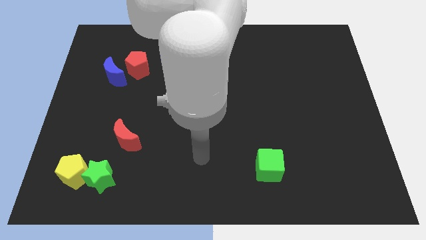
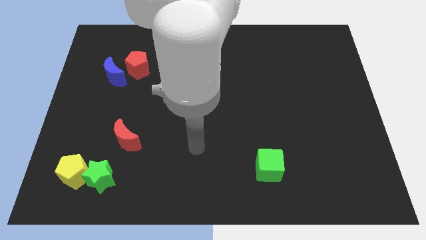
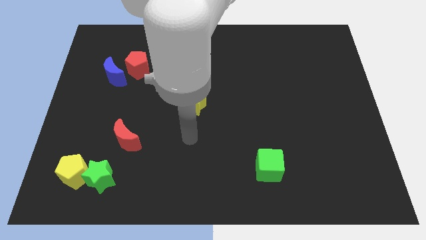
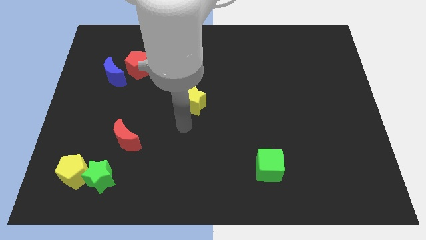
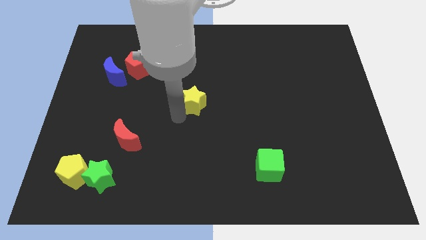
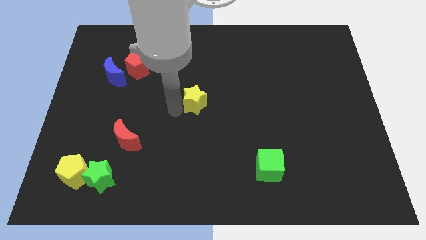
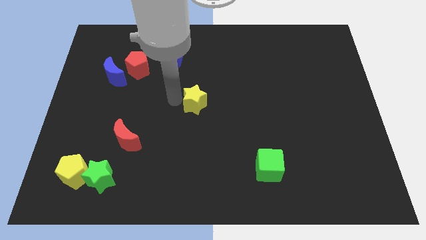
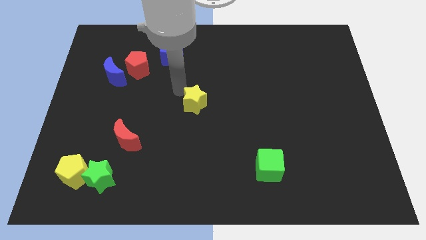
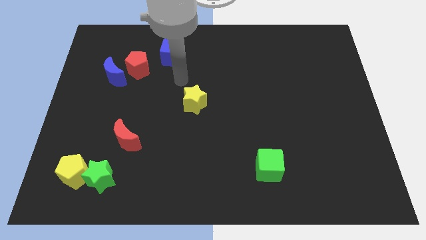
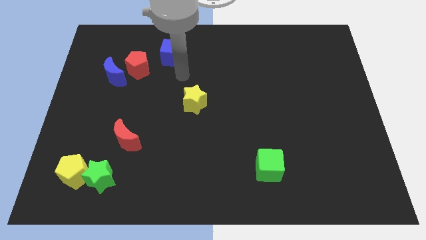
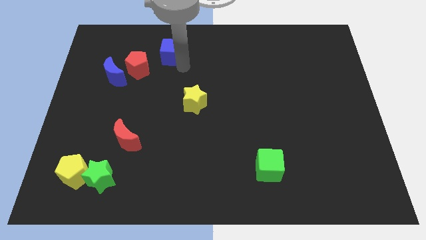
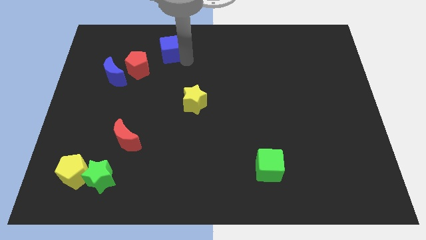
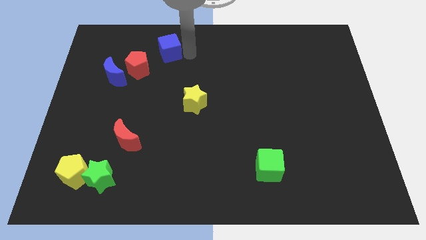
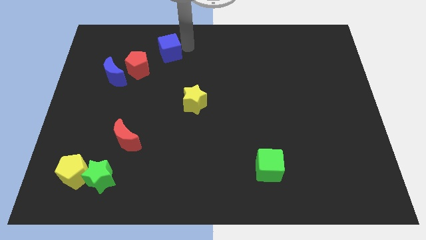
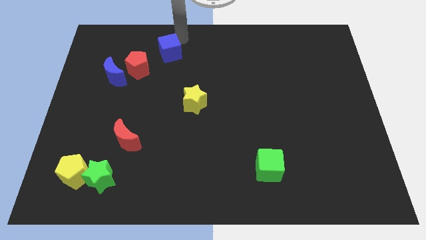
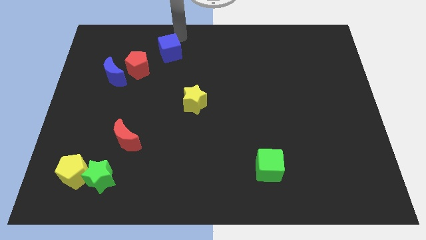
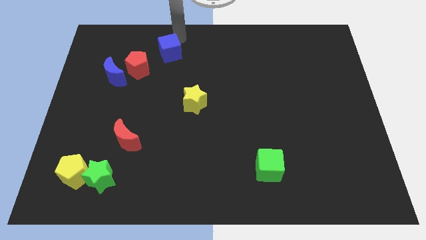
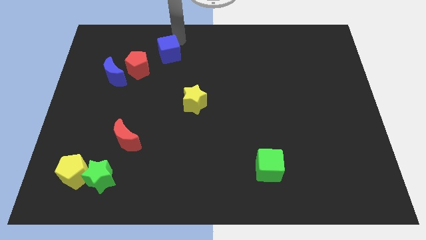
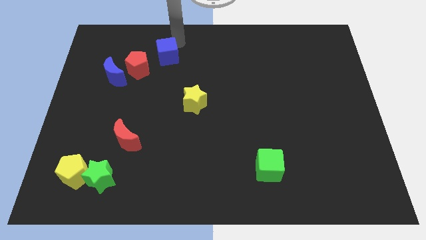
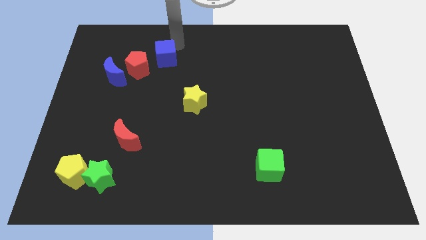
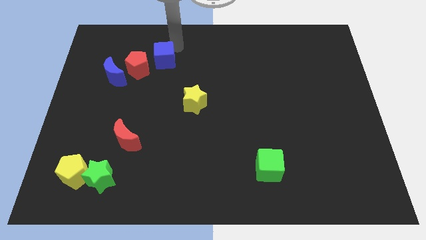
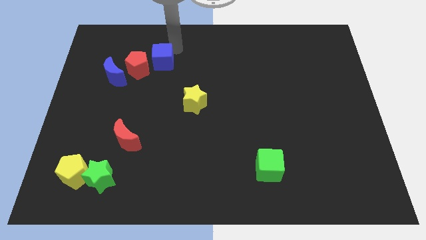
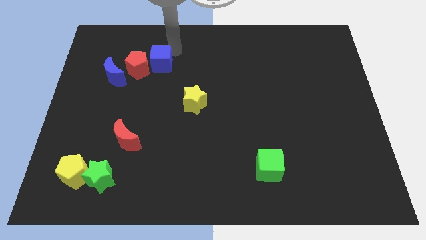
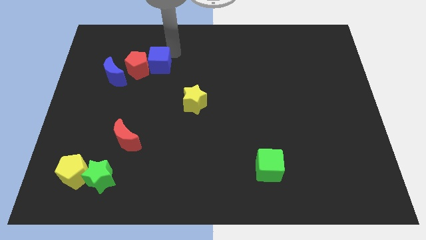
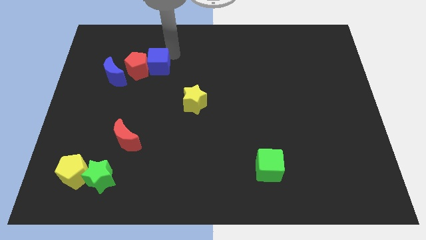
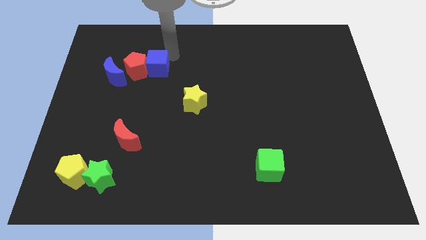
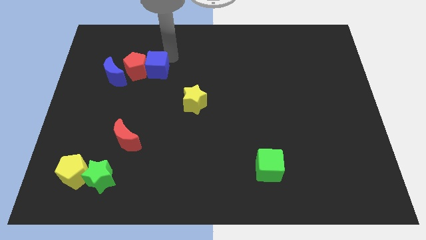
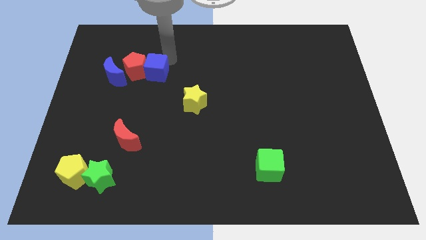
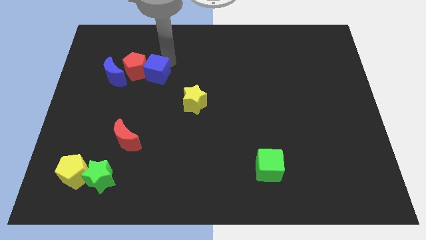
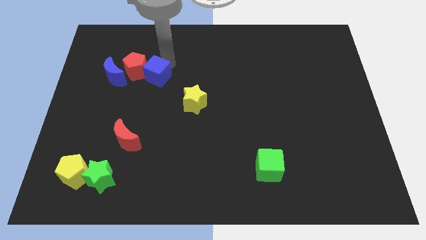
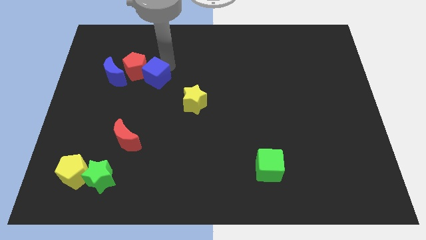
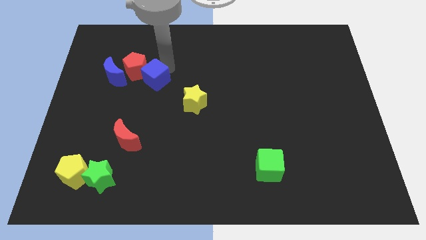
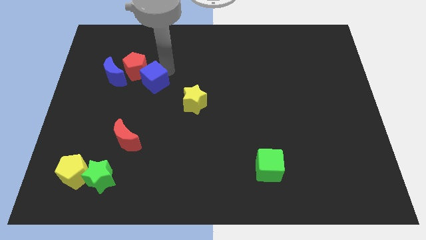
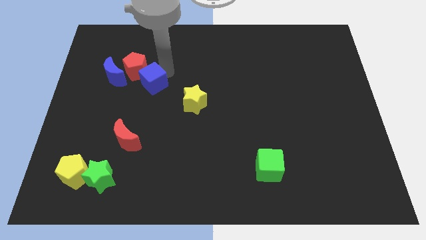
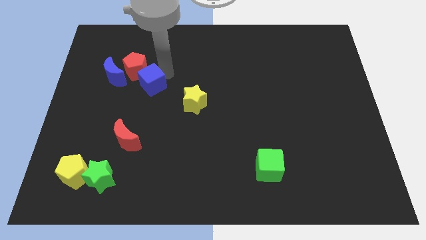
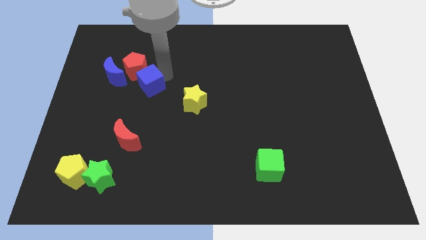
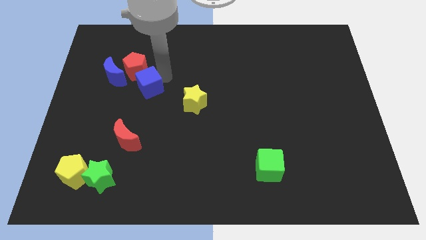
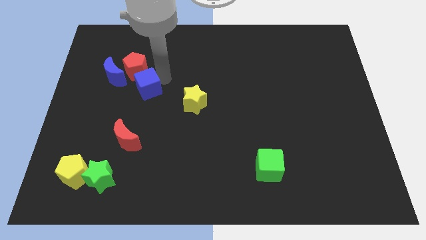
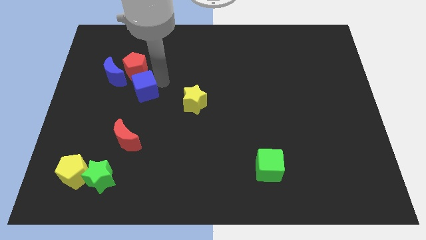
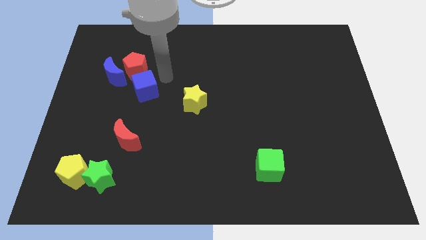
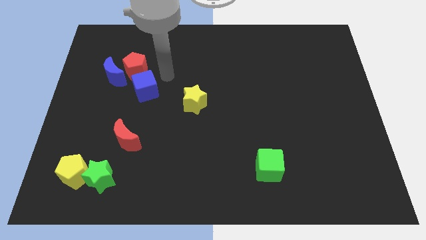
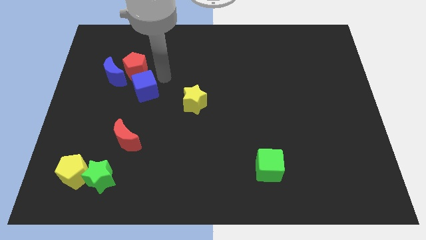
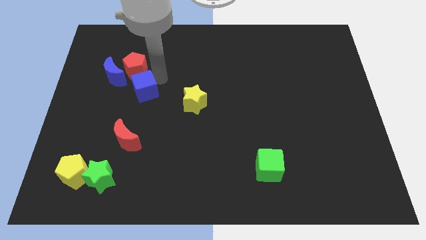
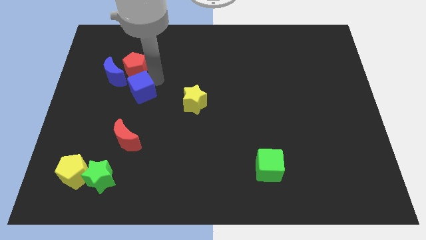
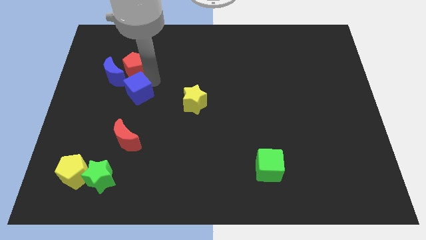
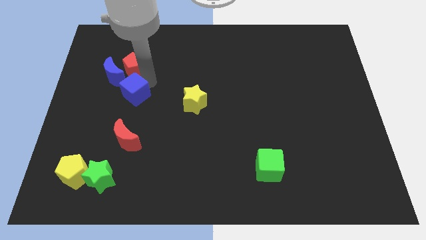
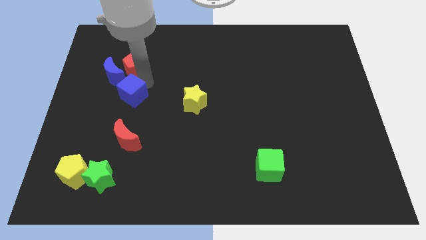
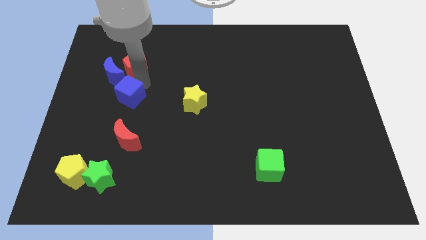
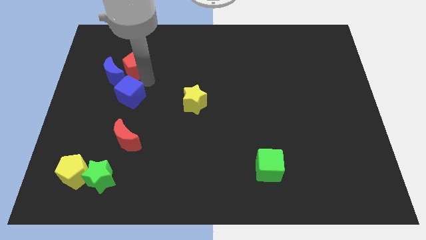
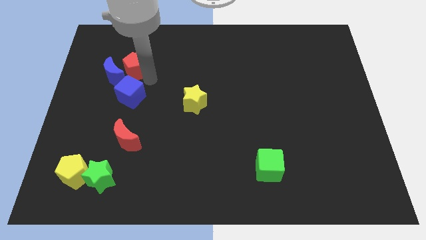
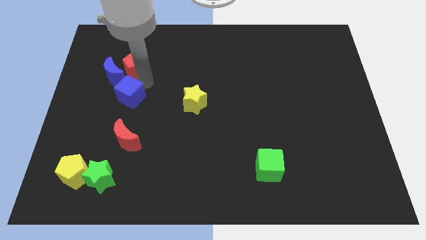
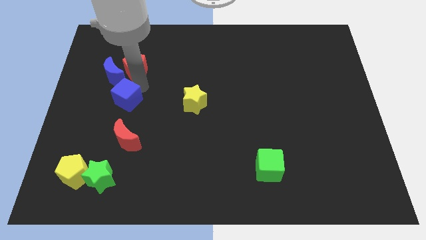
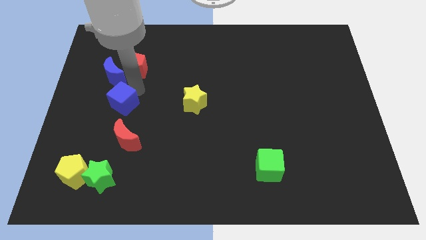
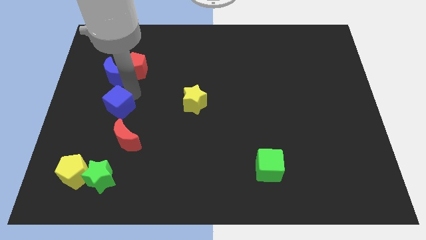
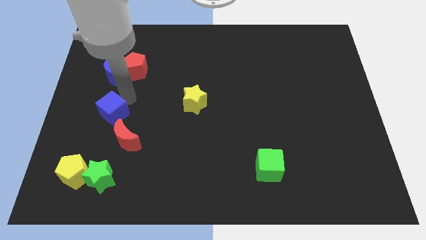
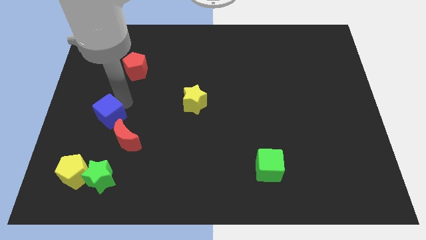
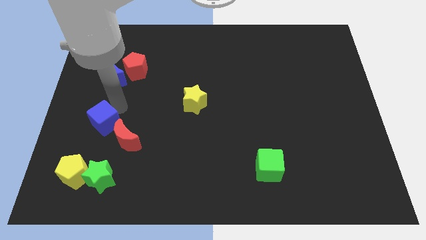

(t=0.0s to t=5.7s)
slide the blue cube to the top side of the yellow pentagon

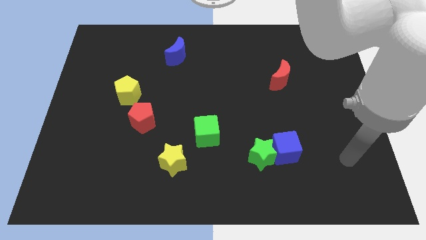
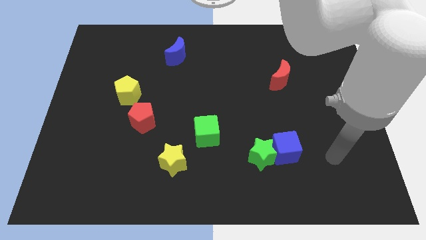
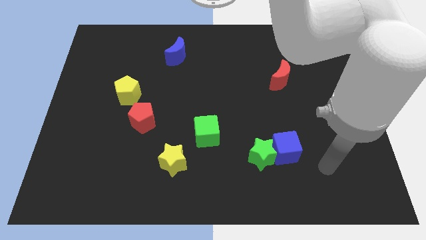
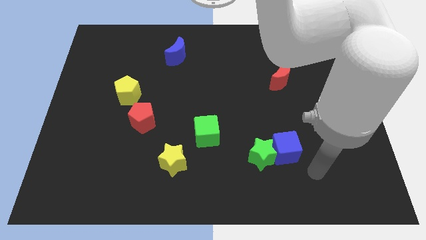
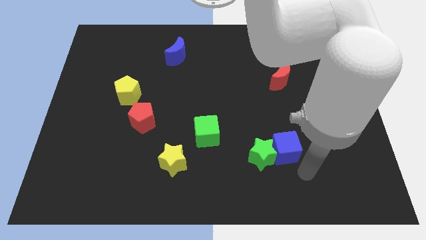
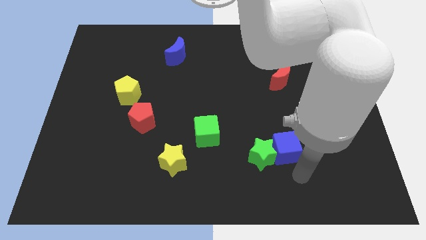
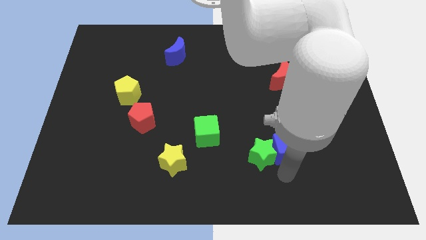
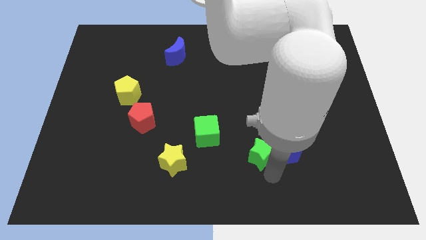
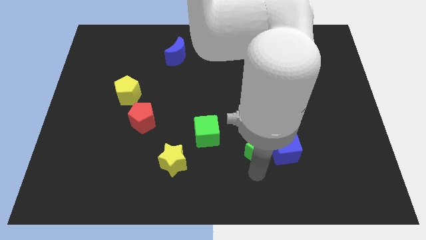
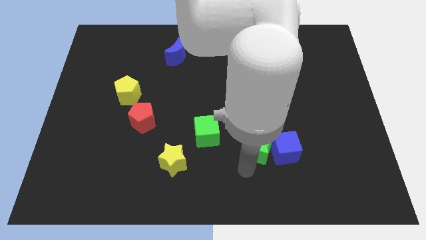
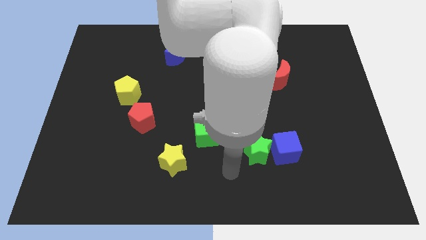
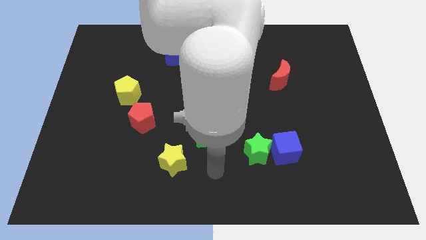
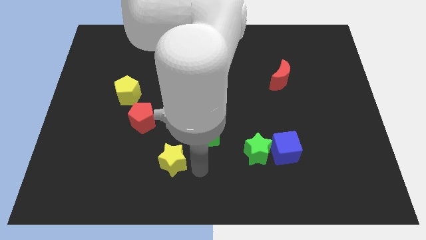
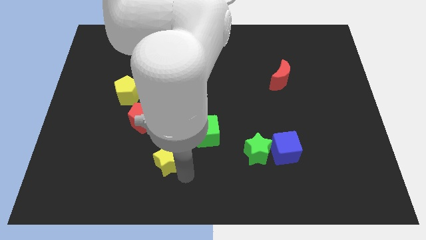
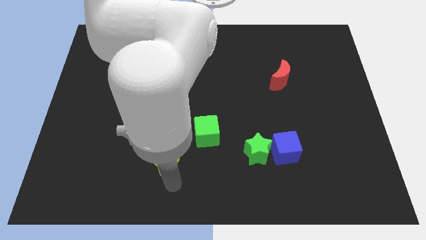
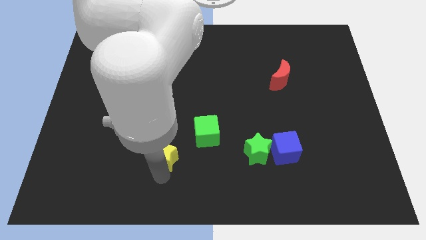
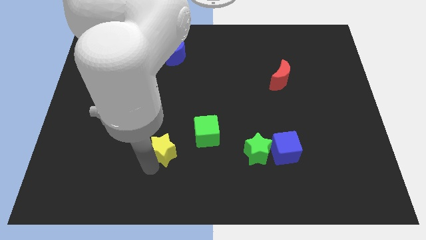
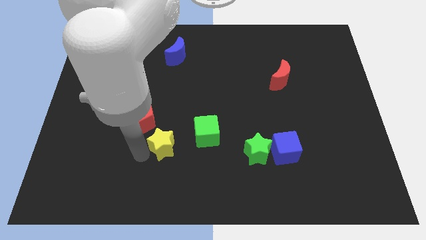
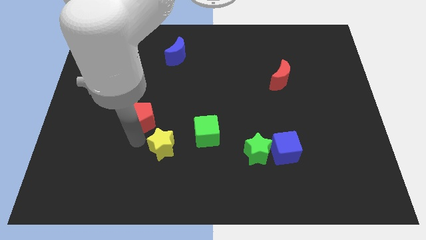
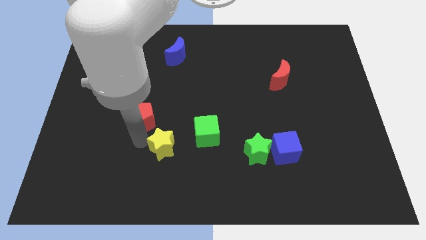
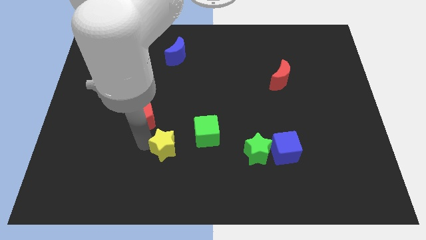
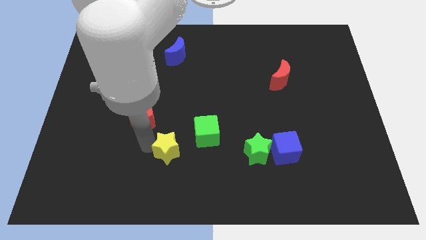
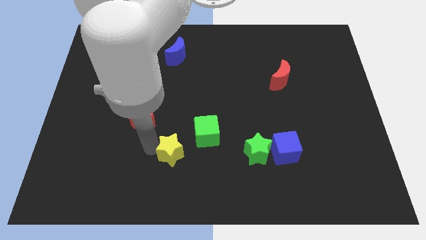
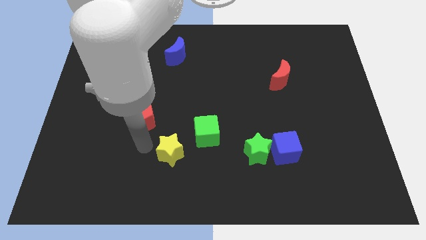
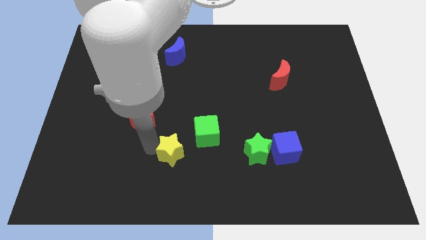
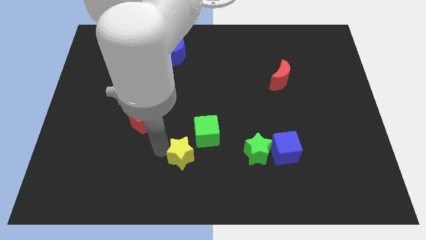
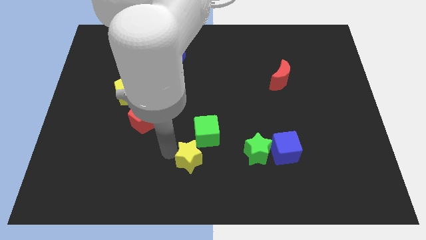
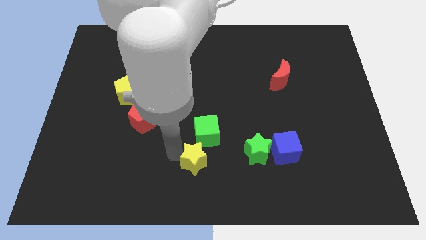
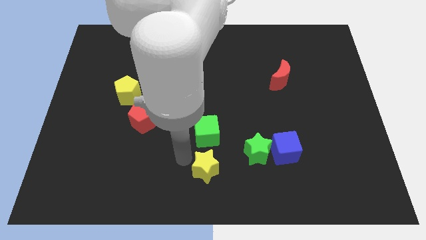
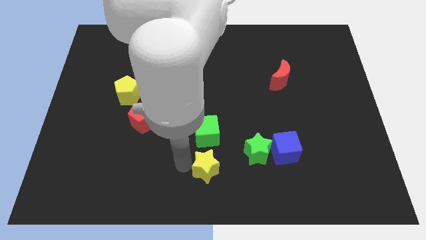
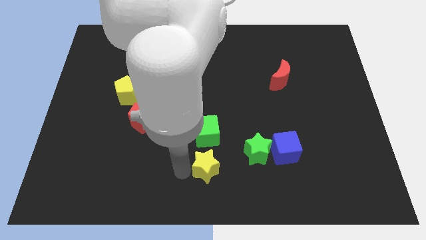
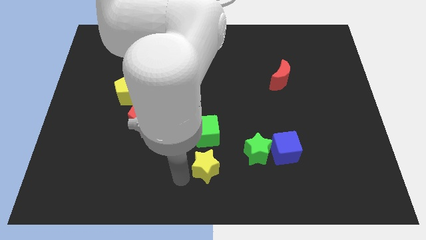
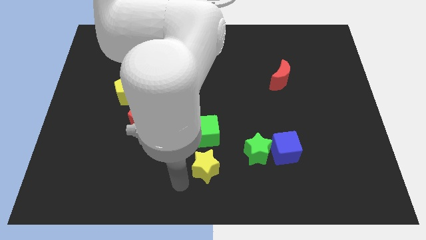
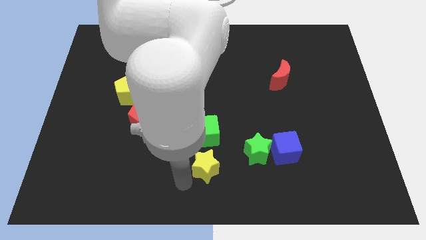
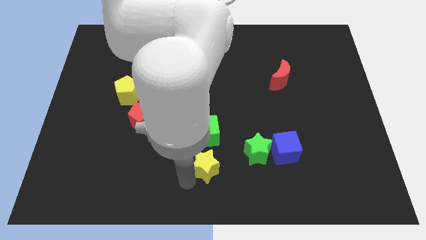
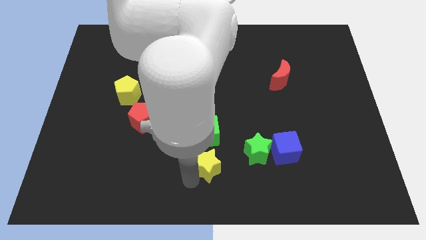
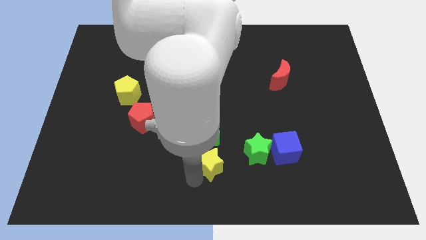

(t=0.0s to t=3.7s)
put the yellow star to the bottom right side of the green cube
